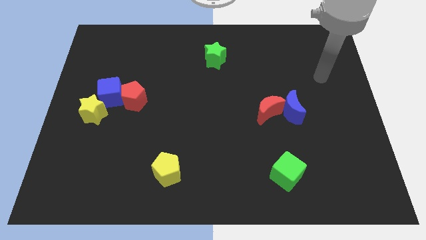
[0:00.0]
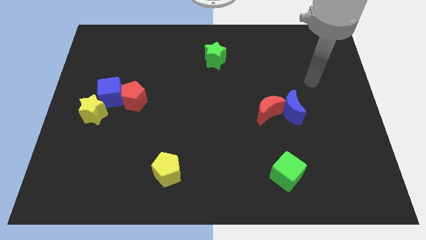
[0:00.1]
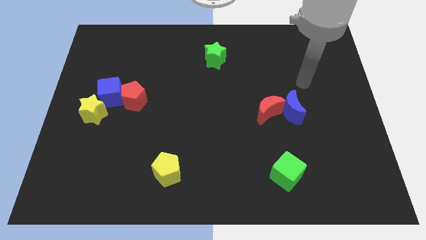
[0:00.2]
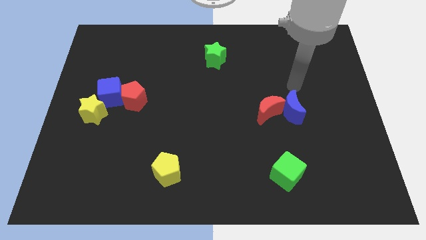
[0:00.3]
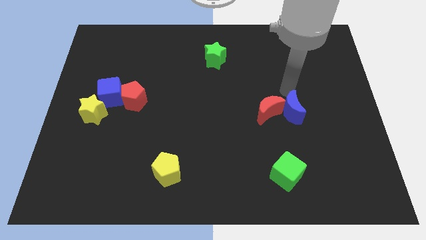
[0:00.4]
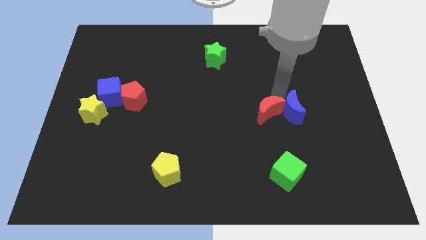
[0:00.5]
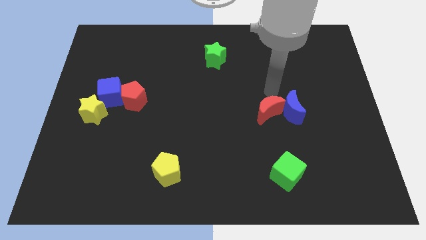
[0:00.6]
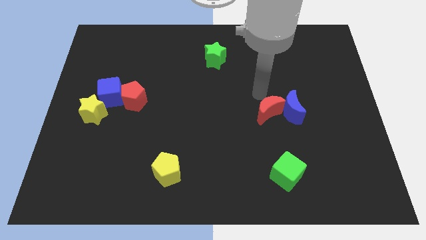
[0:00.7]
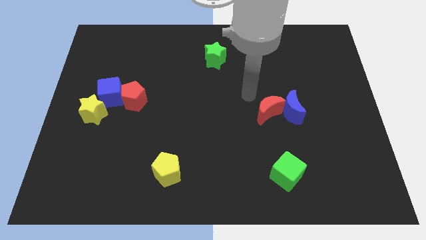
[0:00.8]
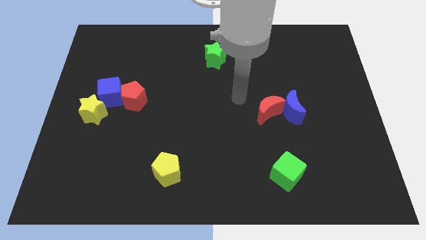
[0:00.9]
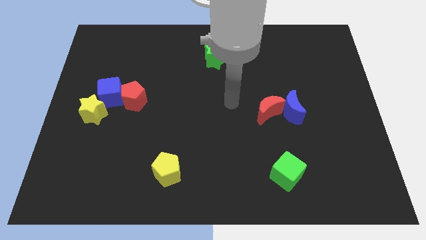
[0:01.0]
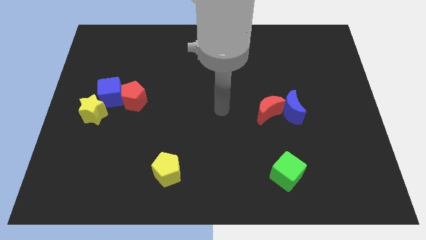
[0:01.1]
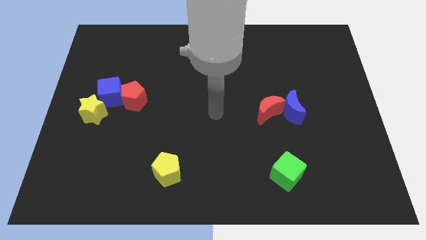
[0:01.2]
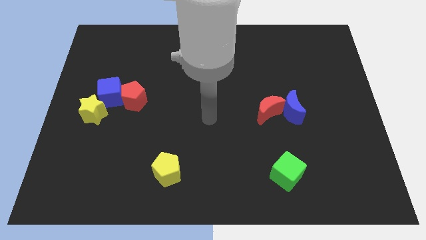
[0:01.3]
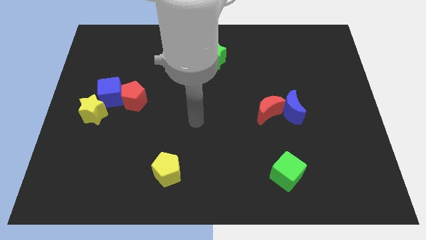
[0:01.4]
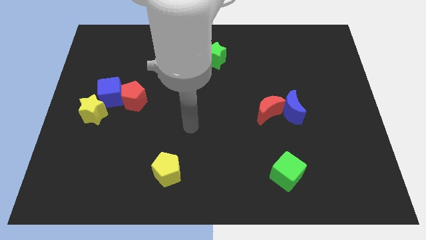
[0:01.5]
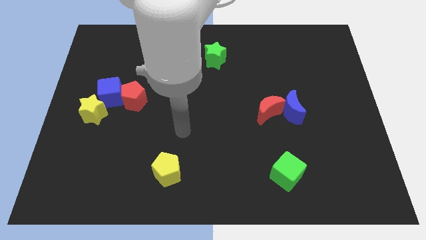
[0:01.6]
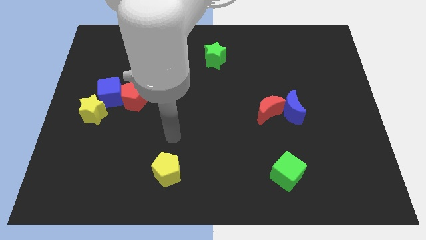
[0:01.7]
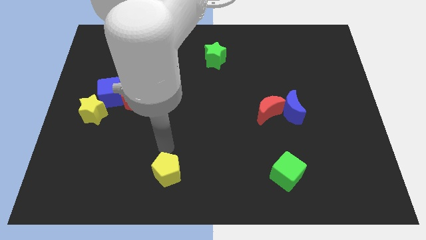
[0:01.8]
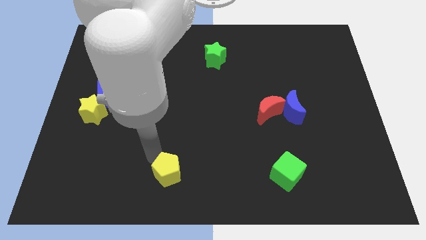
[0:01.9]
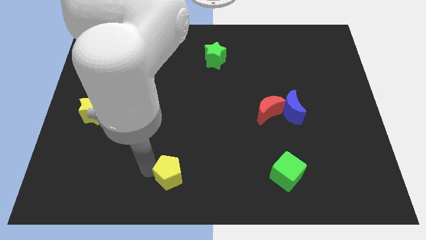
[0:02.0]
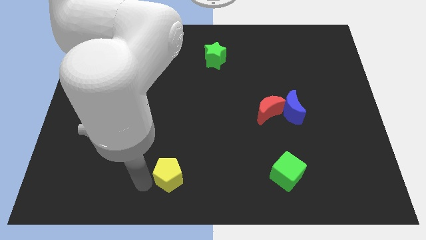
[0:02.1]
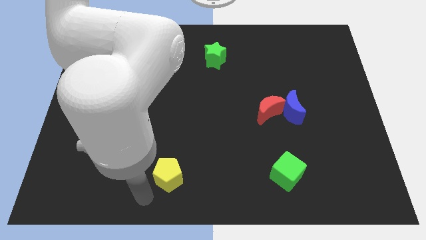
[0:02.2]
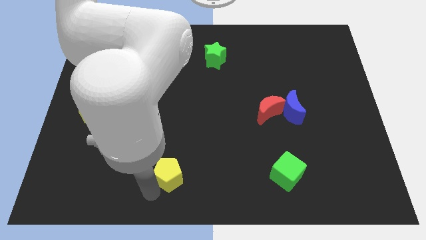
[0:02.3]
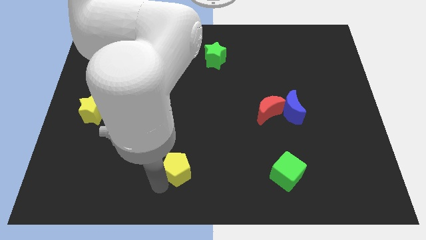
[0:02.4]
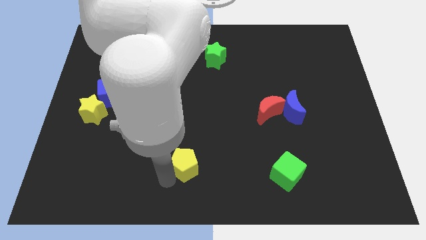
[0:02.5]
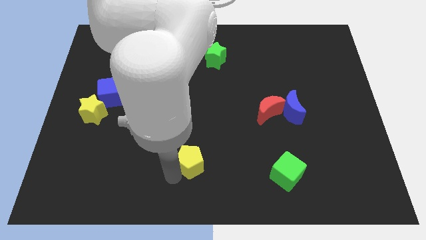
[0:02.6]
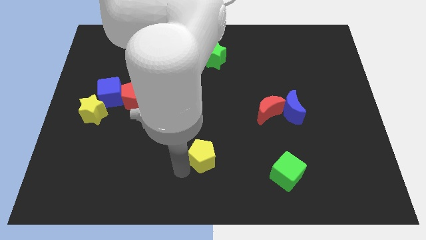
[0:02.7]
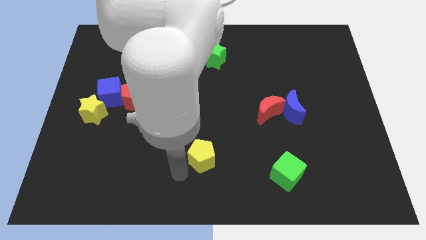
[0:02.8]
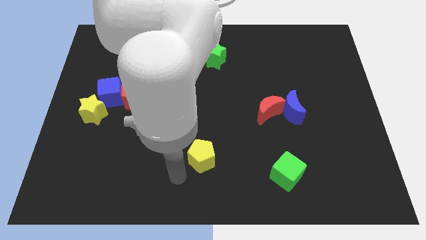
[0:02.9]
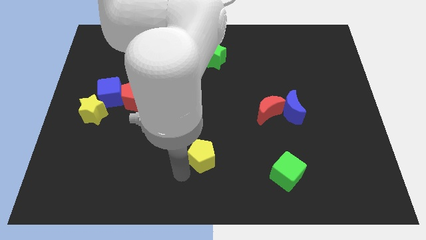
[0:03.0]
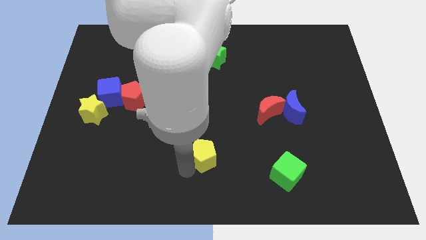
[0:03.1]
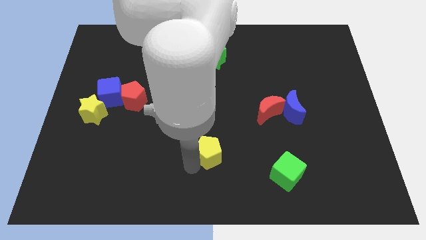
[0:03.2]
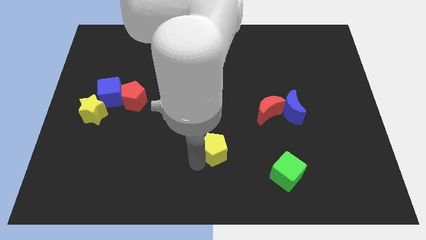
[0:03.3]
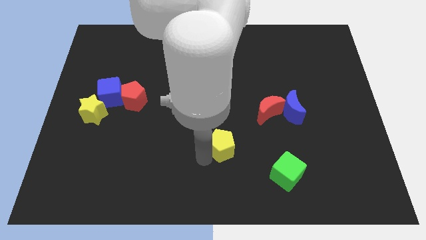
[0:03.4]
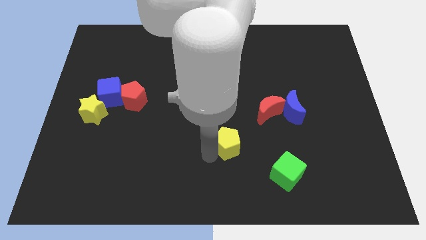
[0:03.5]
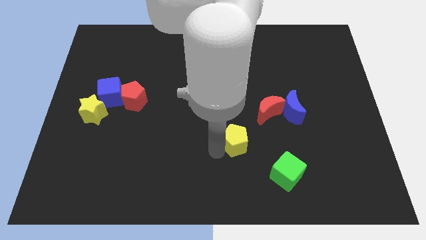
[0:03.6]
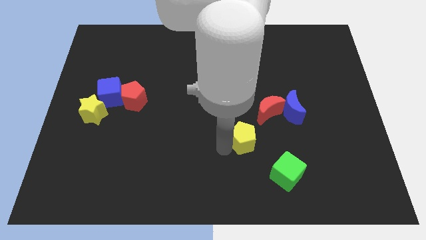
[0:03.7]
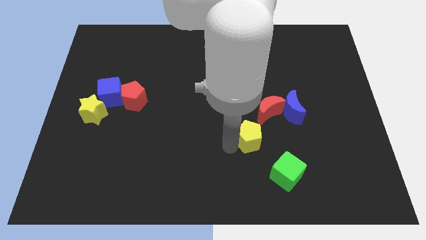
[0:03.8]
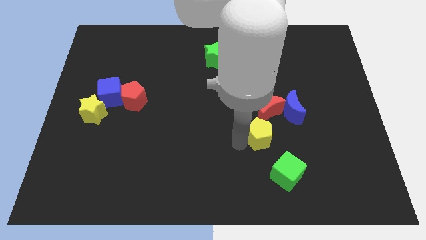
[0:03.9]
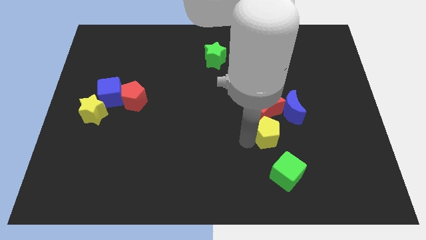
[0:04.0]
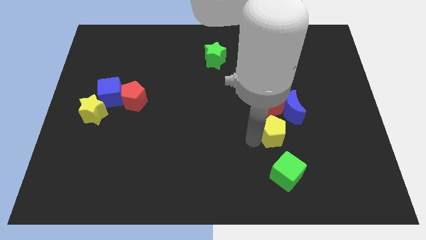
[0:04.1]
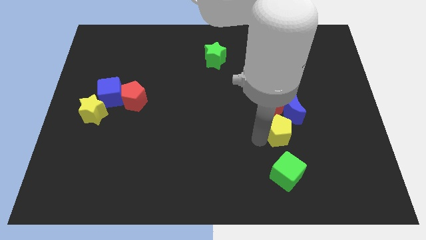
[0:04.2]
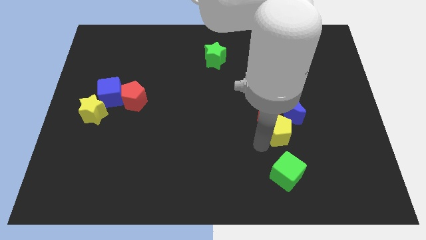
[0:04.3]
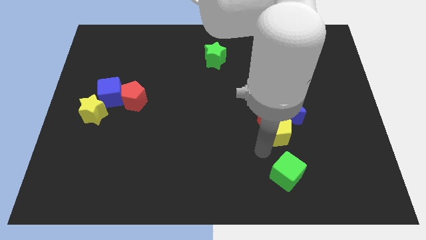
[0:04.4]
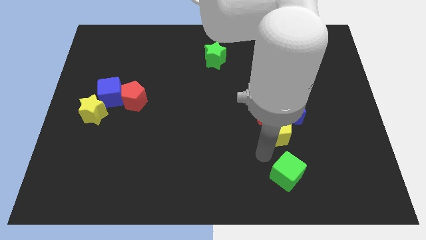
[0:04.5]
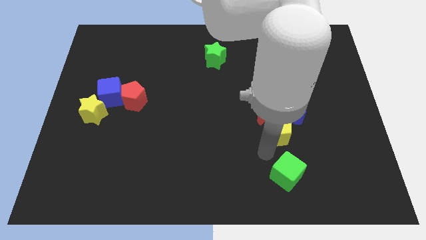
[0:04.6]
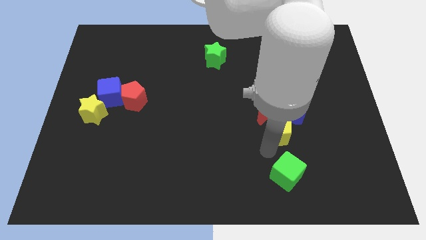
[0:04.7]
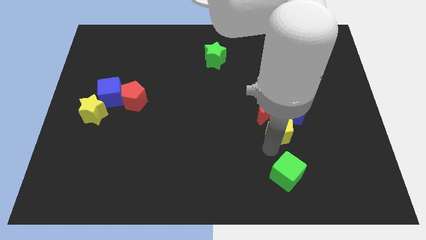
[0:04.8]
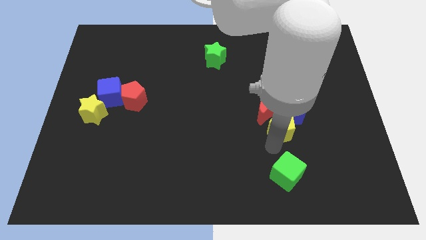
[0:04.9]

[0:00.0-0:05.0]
put the yellow pentagon to the blue moon

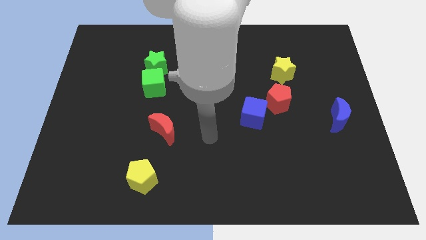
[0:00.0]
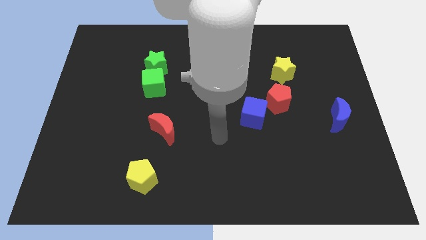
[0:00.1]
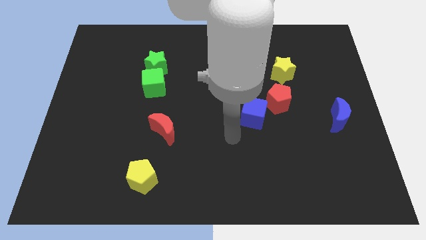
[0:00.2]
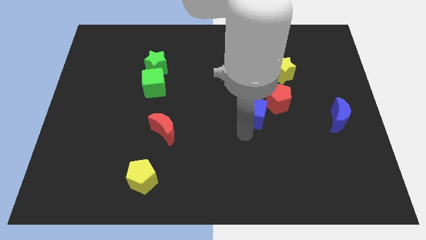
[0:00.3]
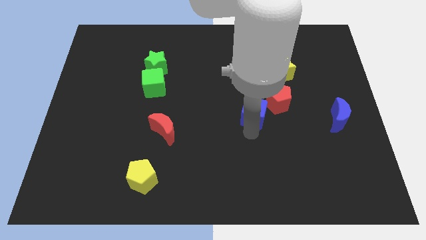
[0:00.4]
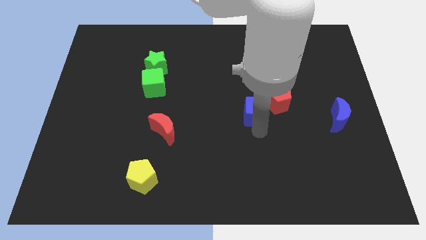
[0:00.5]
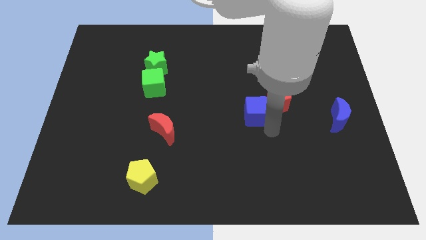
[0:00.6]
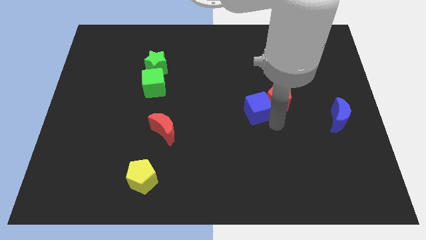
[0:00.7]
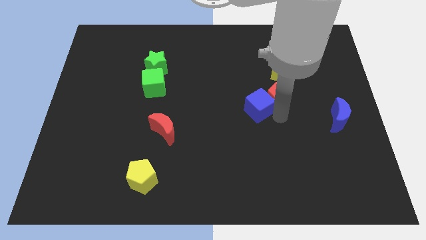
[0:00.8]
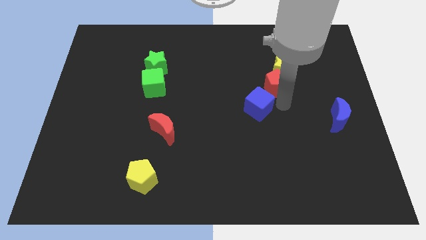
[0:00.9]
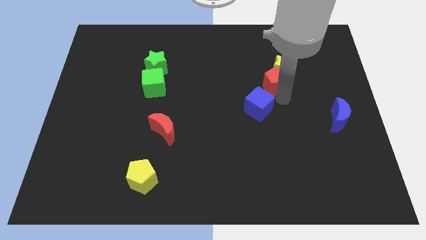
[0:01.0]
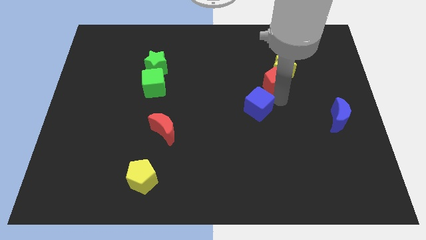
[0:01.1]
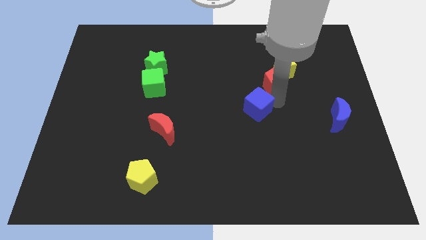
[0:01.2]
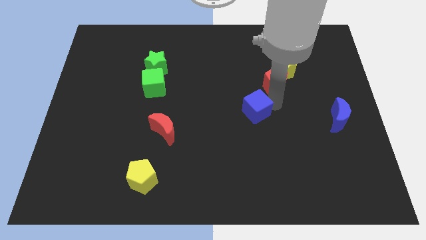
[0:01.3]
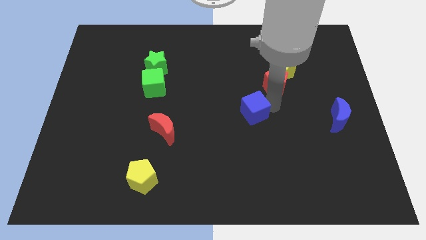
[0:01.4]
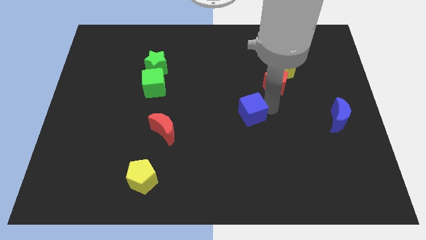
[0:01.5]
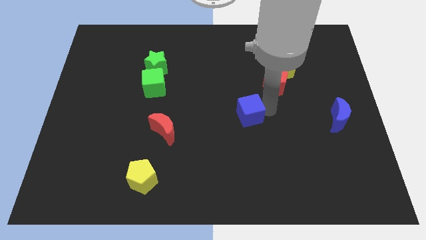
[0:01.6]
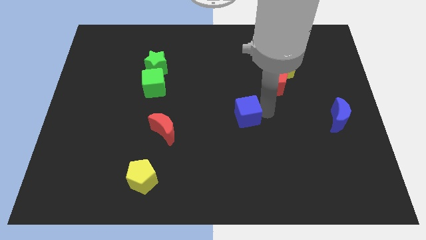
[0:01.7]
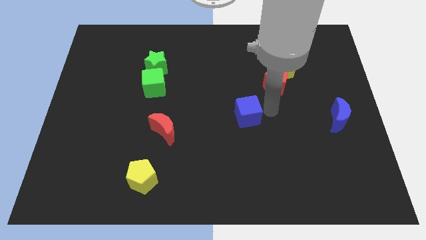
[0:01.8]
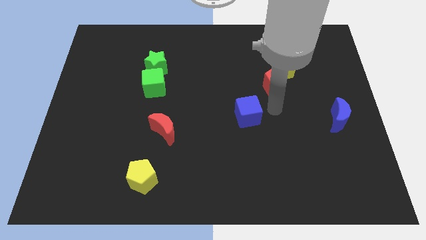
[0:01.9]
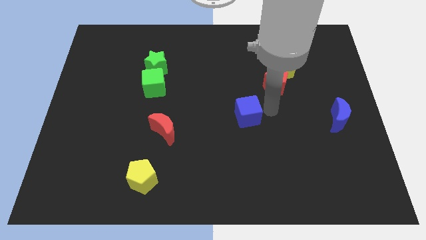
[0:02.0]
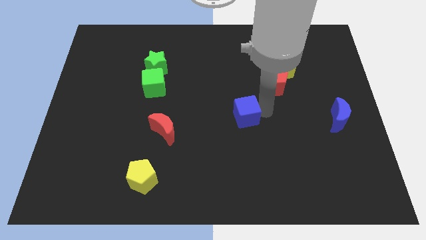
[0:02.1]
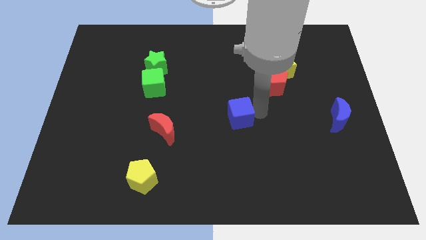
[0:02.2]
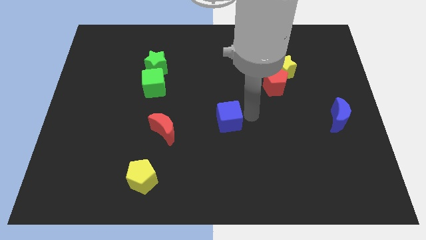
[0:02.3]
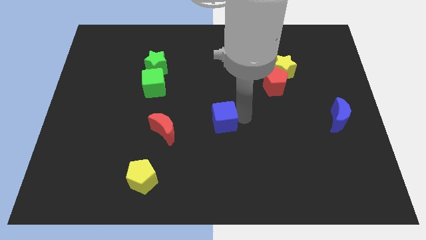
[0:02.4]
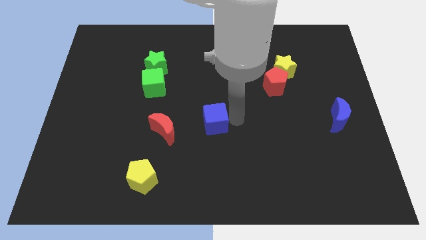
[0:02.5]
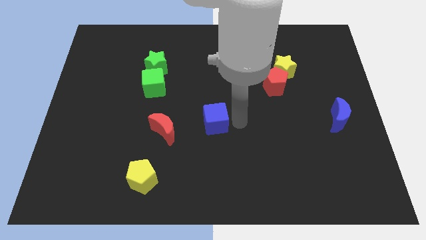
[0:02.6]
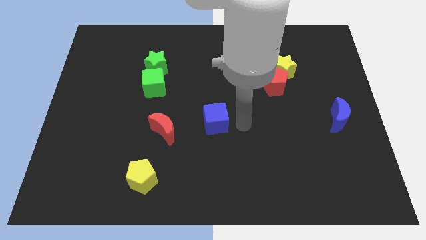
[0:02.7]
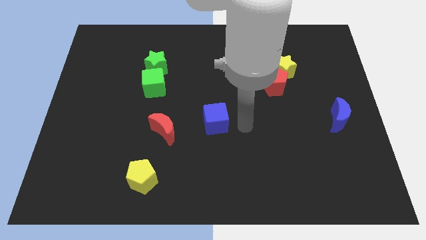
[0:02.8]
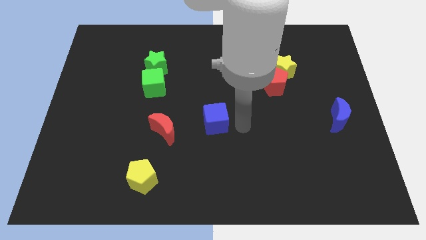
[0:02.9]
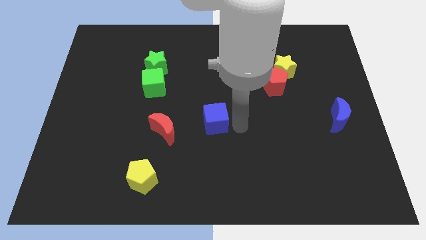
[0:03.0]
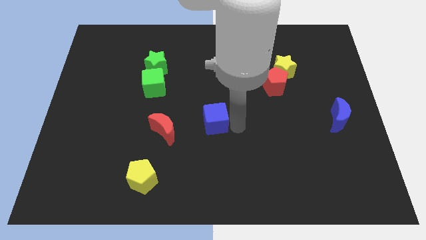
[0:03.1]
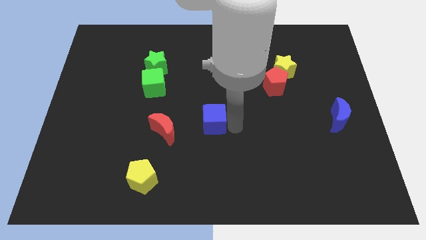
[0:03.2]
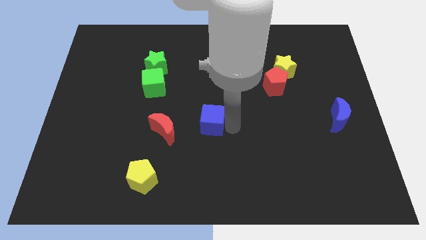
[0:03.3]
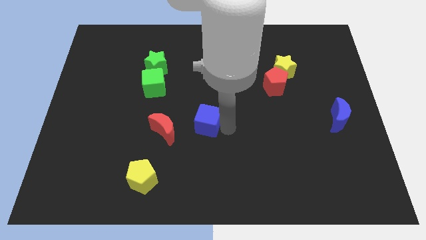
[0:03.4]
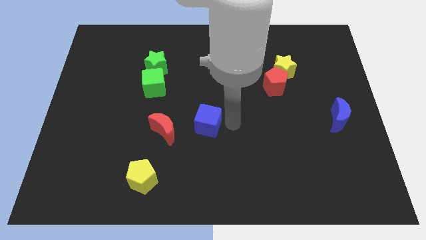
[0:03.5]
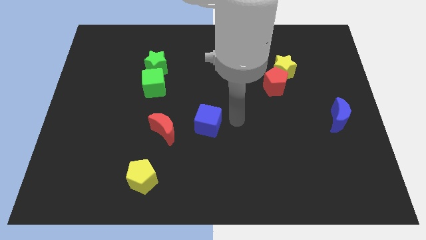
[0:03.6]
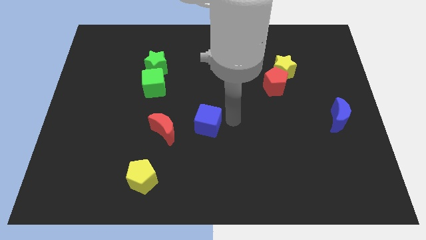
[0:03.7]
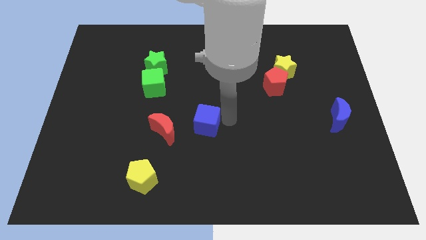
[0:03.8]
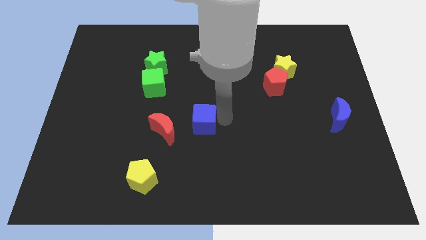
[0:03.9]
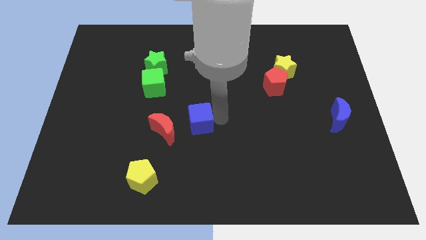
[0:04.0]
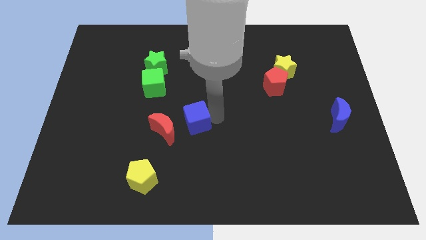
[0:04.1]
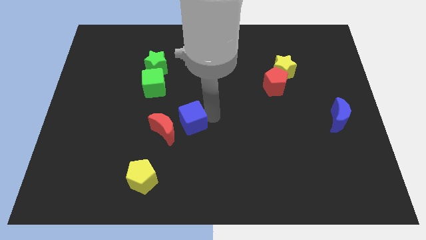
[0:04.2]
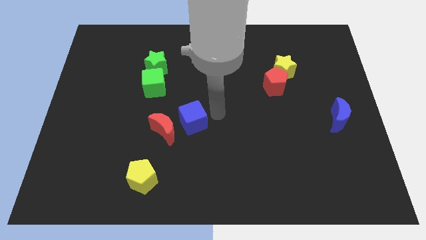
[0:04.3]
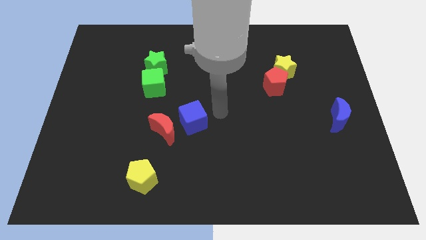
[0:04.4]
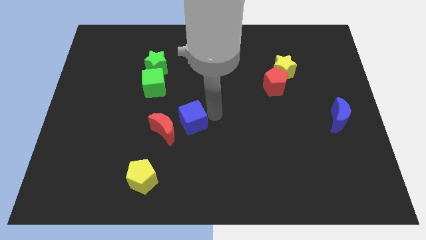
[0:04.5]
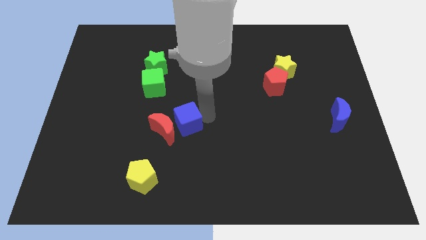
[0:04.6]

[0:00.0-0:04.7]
put the blue cube towards the red moon
